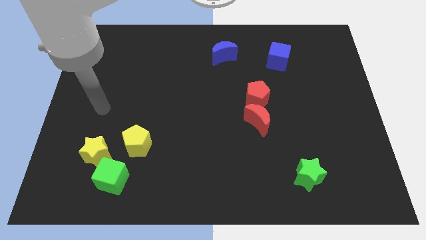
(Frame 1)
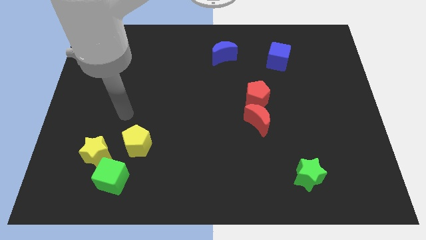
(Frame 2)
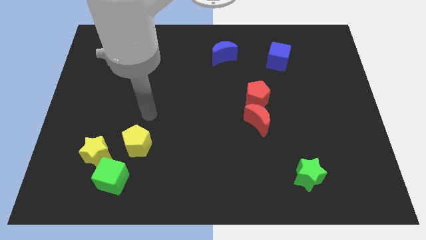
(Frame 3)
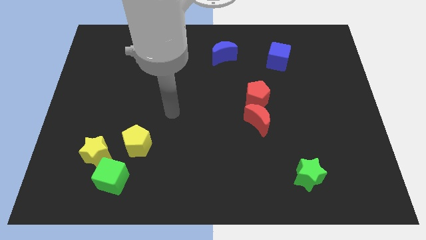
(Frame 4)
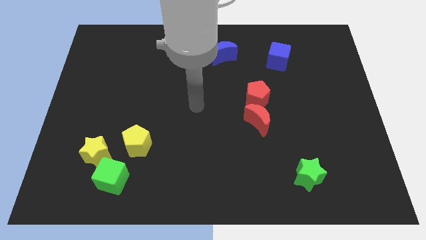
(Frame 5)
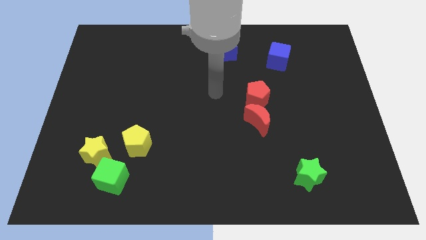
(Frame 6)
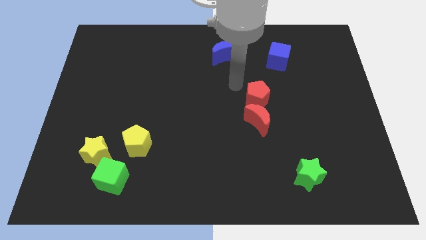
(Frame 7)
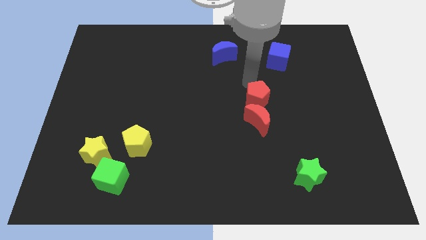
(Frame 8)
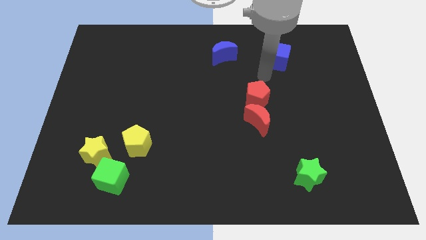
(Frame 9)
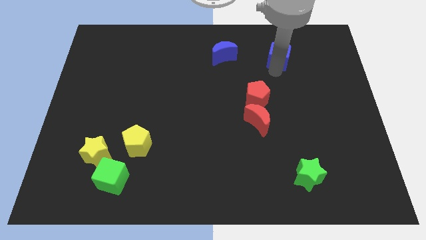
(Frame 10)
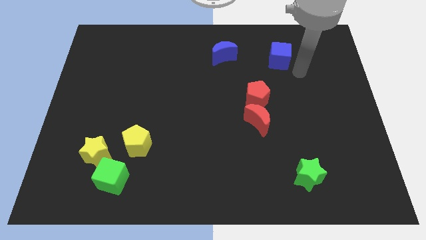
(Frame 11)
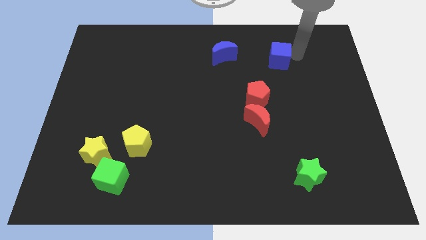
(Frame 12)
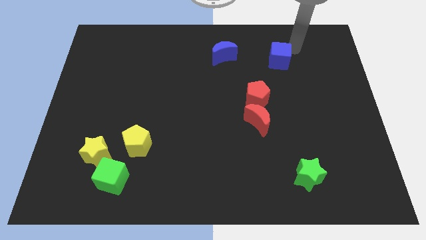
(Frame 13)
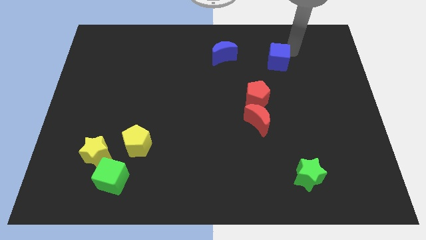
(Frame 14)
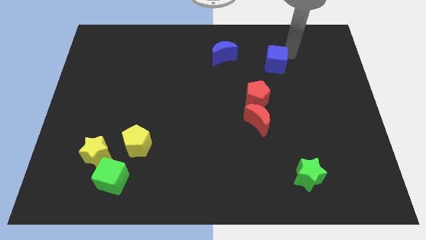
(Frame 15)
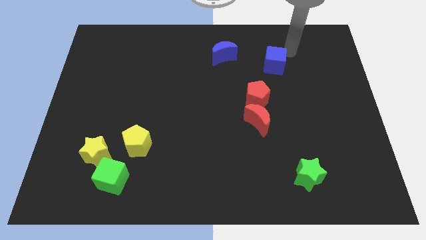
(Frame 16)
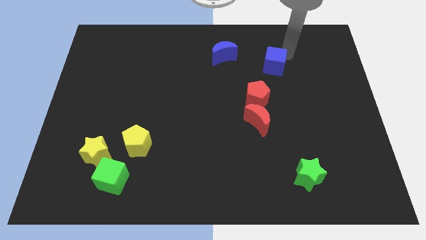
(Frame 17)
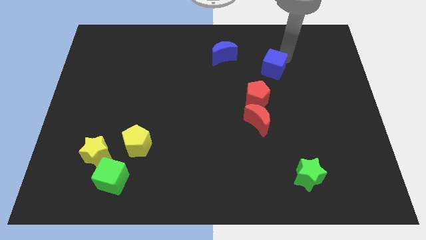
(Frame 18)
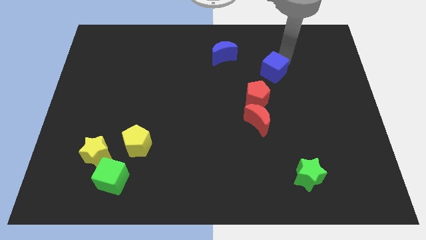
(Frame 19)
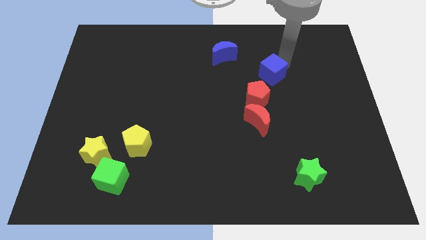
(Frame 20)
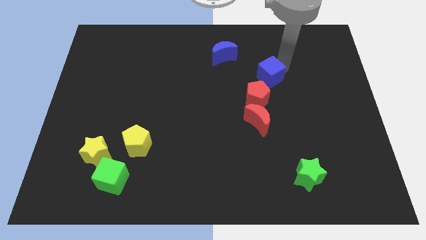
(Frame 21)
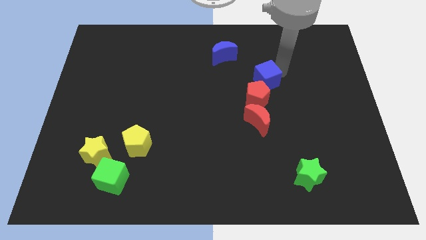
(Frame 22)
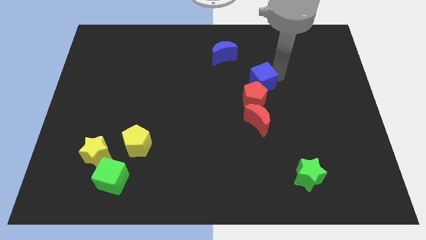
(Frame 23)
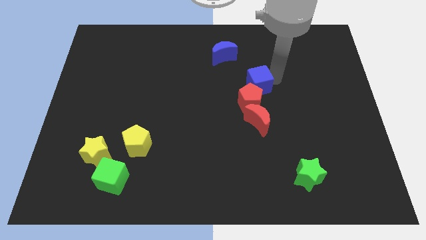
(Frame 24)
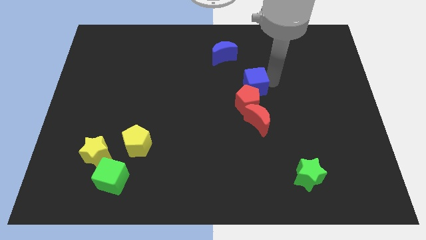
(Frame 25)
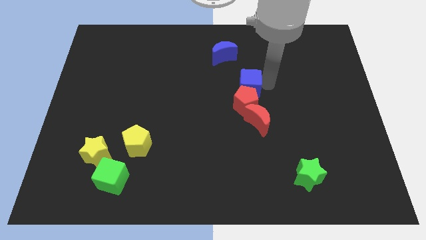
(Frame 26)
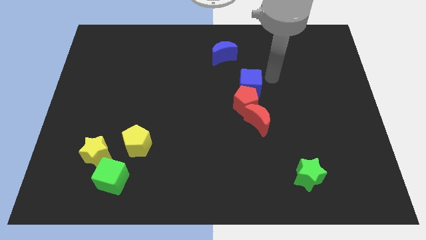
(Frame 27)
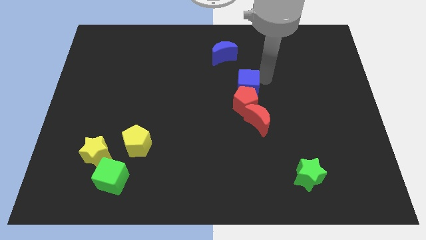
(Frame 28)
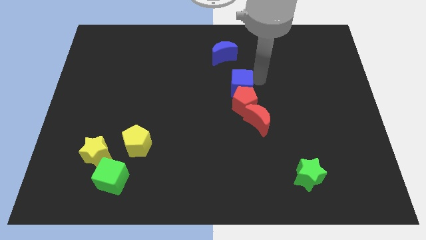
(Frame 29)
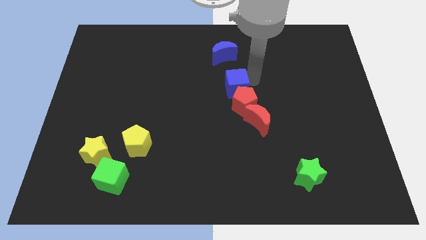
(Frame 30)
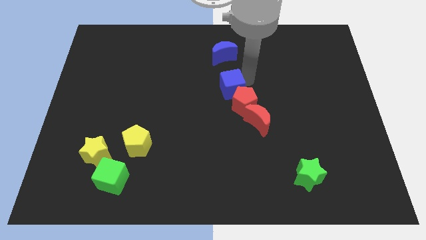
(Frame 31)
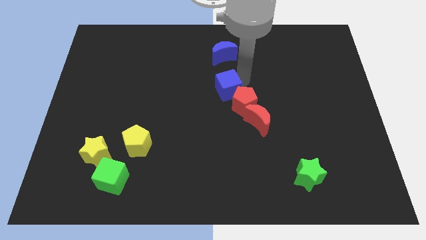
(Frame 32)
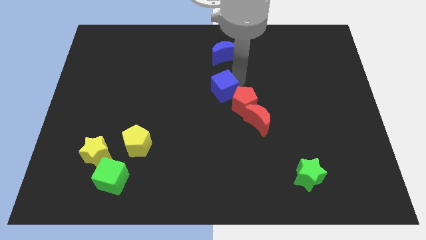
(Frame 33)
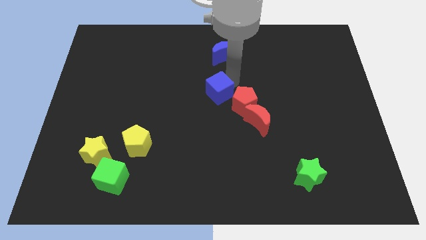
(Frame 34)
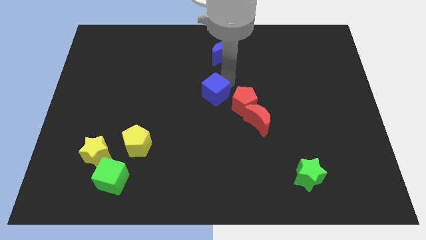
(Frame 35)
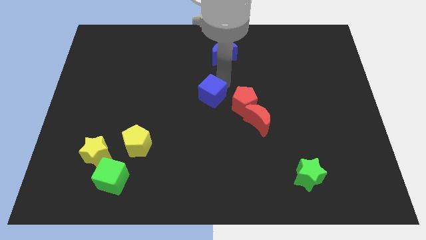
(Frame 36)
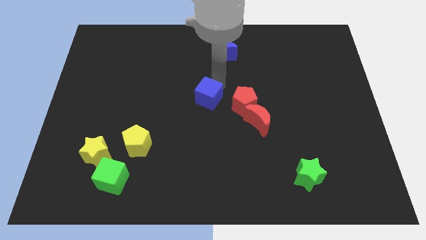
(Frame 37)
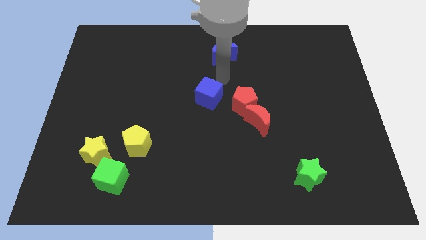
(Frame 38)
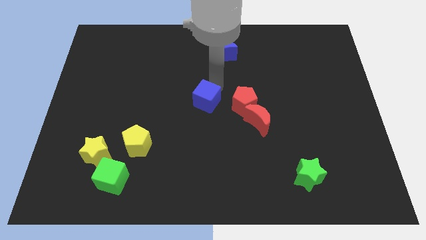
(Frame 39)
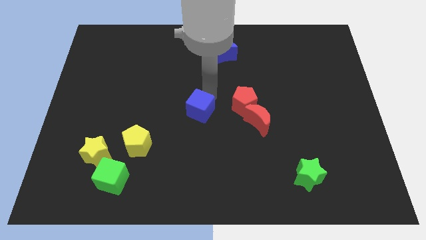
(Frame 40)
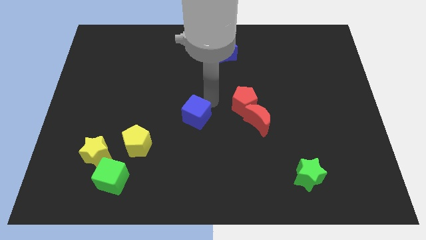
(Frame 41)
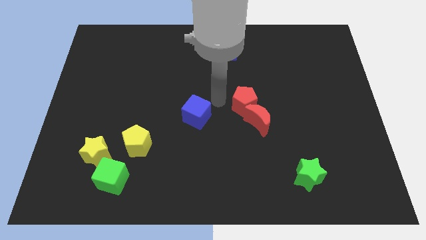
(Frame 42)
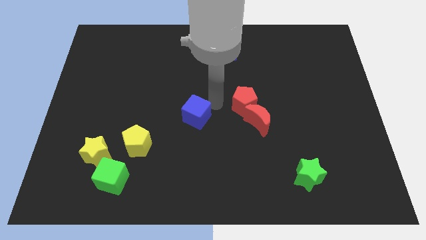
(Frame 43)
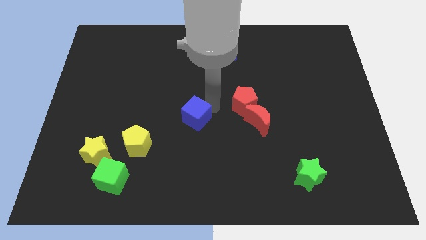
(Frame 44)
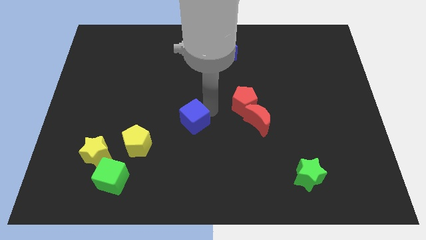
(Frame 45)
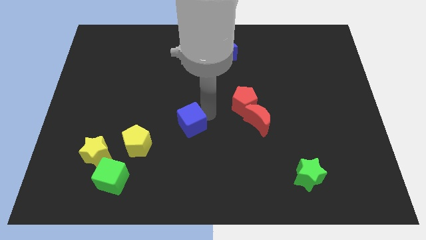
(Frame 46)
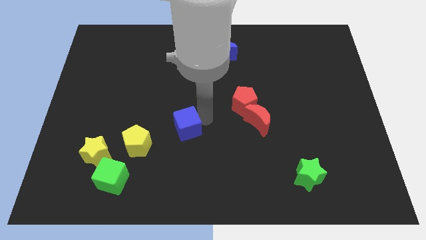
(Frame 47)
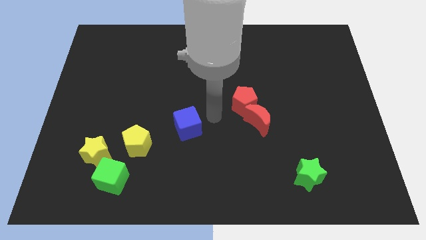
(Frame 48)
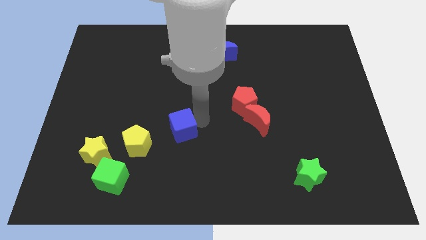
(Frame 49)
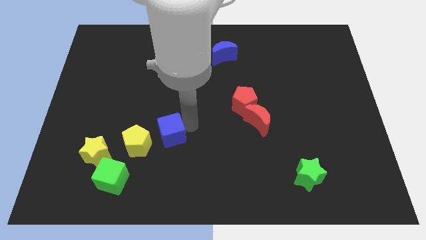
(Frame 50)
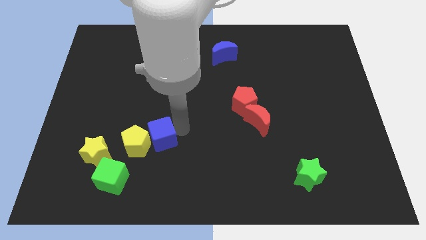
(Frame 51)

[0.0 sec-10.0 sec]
move the blue cube to the yellow pentagon

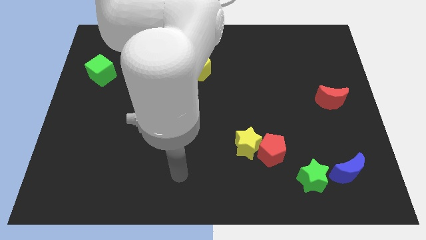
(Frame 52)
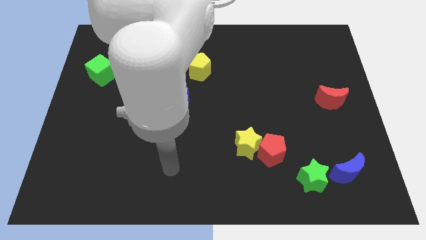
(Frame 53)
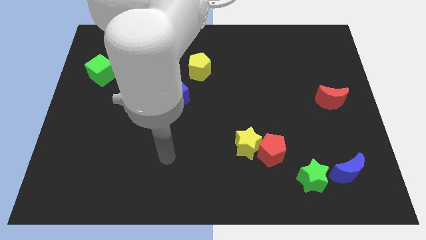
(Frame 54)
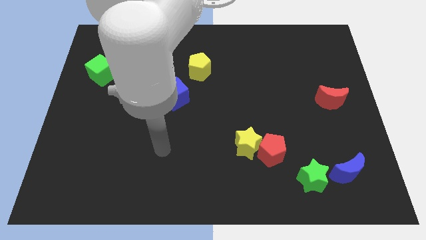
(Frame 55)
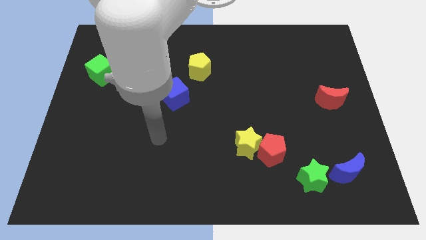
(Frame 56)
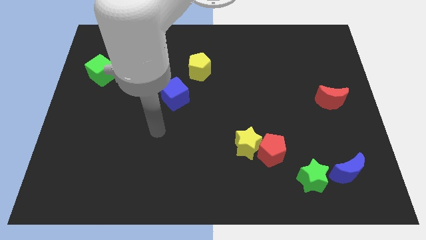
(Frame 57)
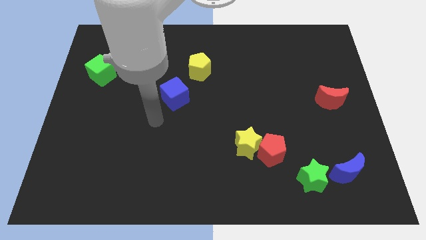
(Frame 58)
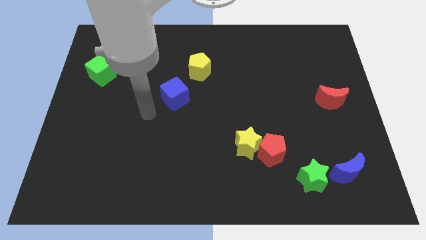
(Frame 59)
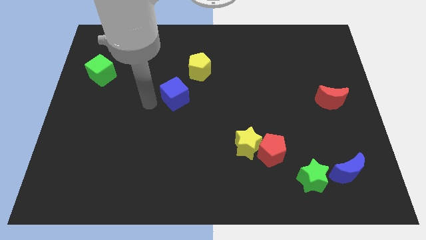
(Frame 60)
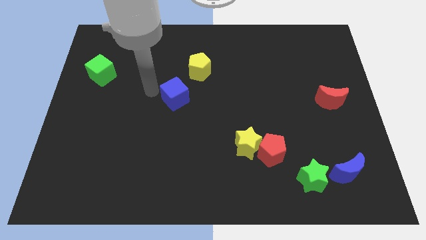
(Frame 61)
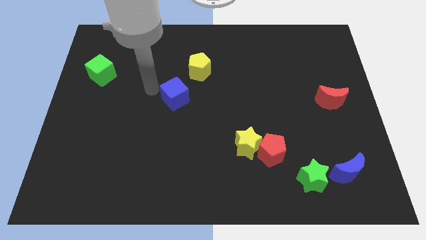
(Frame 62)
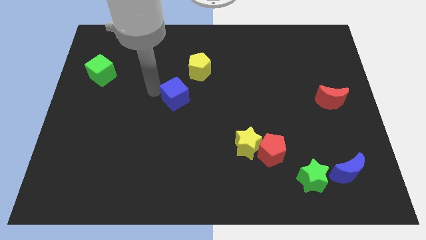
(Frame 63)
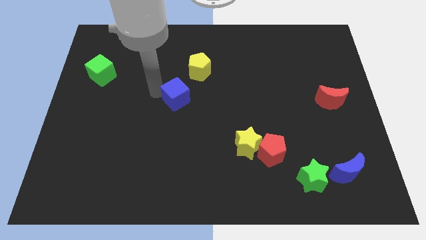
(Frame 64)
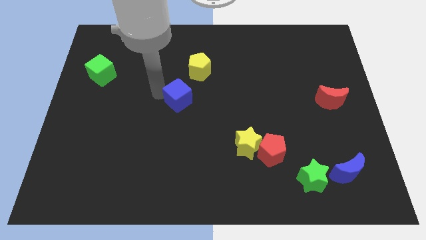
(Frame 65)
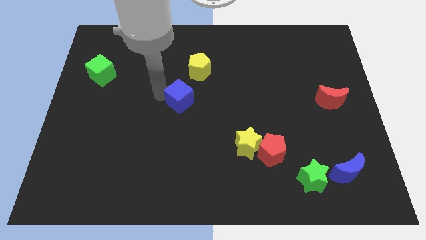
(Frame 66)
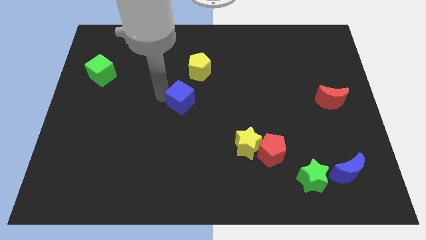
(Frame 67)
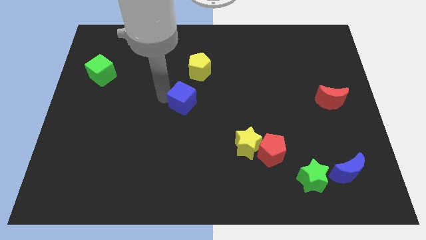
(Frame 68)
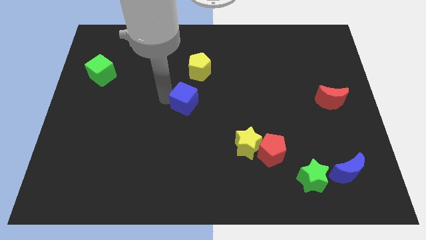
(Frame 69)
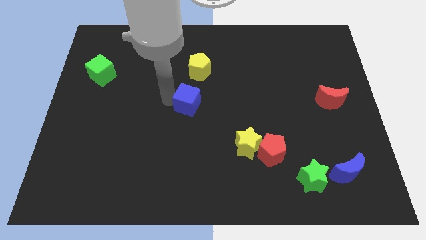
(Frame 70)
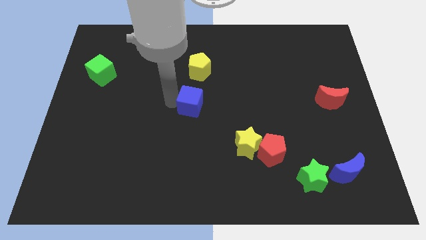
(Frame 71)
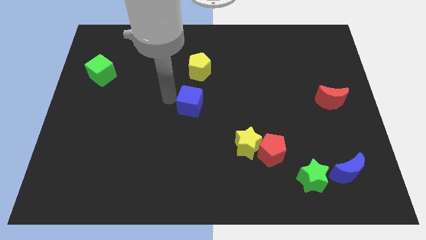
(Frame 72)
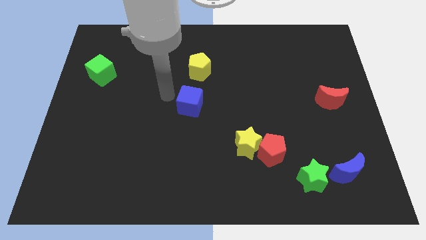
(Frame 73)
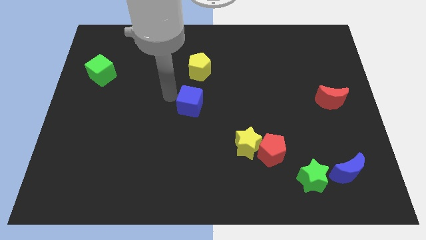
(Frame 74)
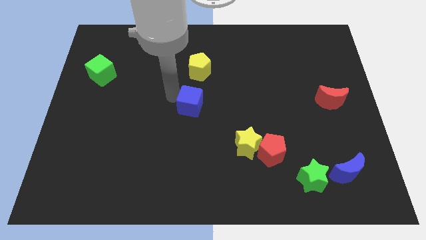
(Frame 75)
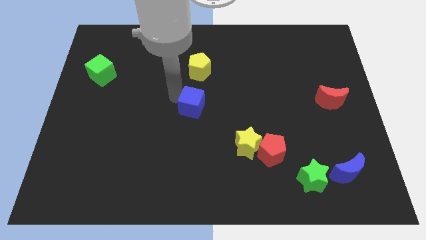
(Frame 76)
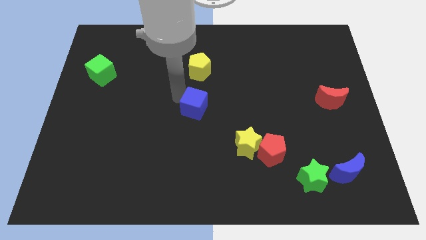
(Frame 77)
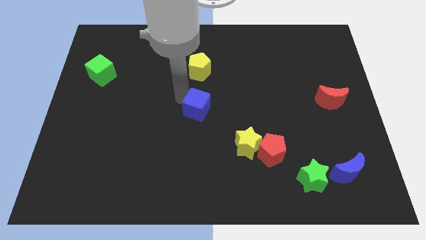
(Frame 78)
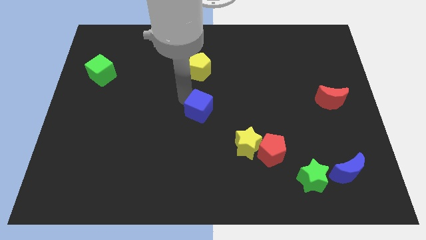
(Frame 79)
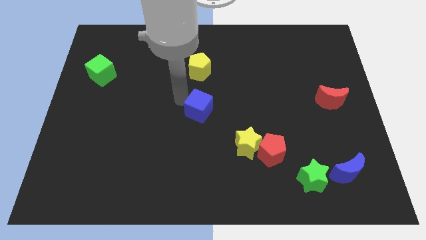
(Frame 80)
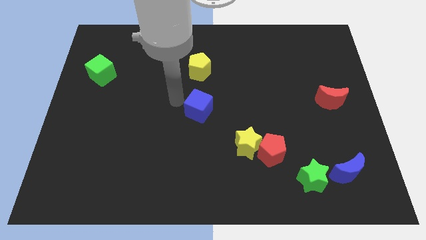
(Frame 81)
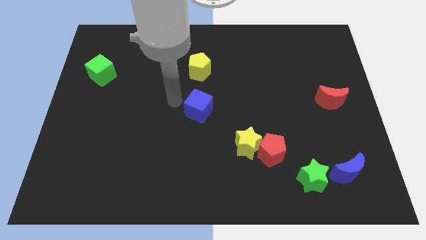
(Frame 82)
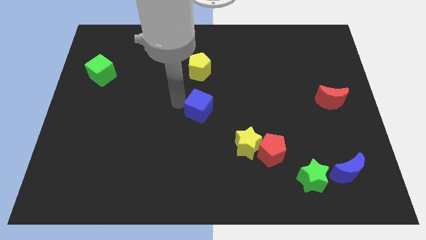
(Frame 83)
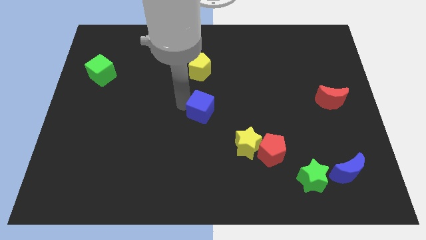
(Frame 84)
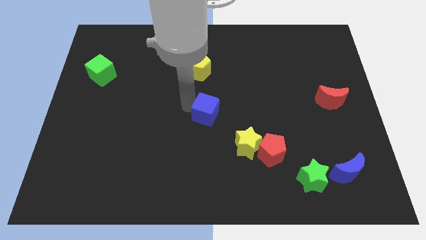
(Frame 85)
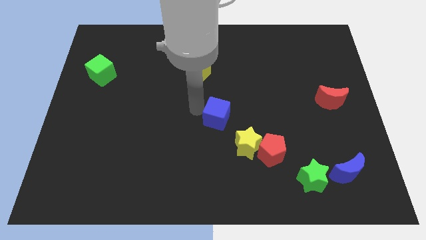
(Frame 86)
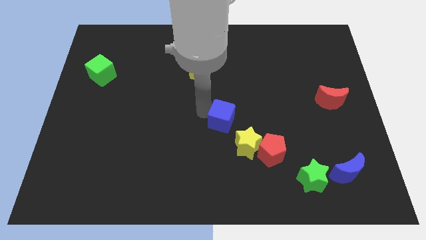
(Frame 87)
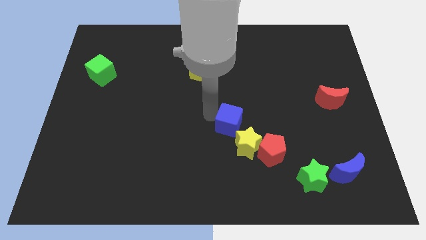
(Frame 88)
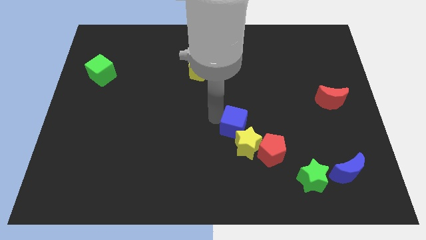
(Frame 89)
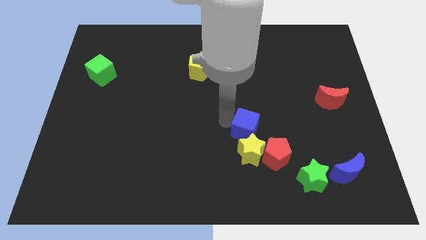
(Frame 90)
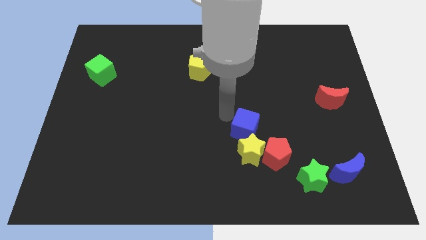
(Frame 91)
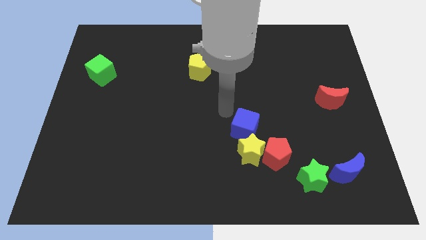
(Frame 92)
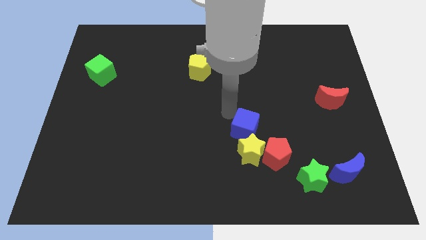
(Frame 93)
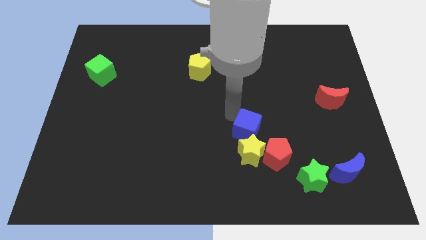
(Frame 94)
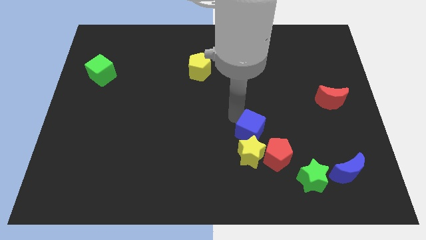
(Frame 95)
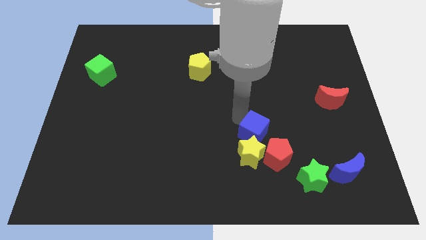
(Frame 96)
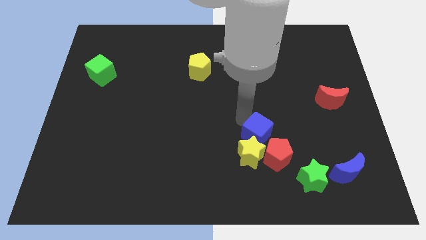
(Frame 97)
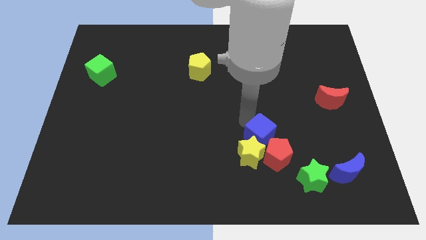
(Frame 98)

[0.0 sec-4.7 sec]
slide the blue cube next to the red pentagon
